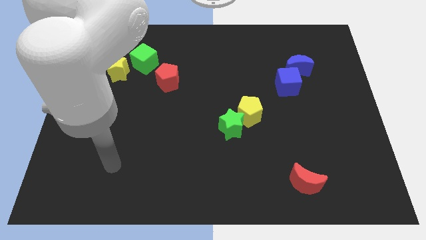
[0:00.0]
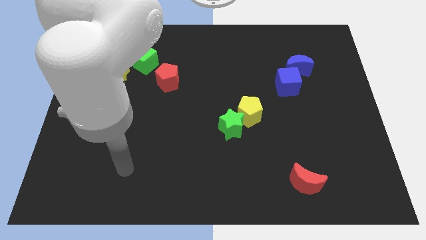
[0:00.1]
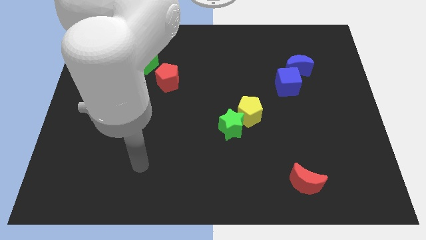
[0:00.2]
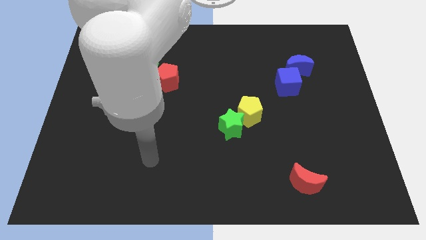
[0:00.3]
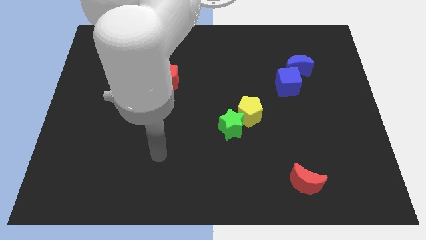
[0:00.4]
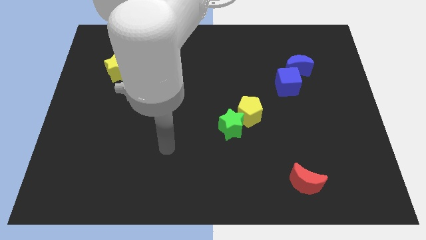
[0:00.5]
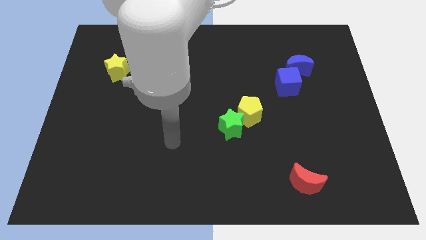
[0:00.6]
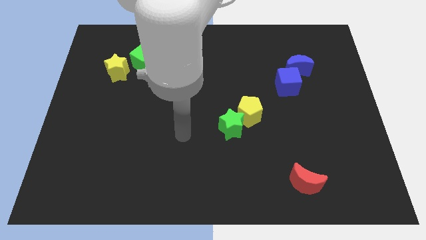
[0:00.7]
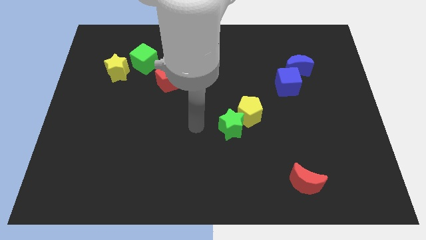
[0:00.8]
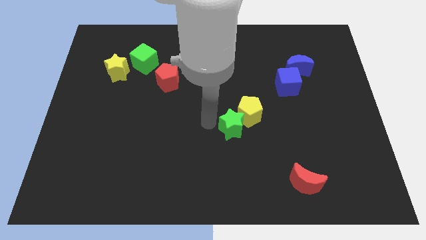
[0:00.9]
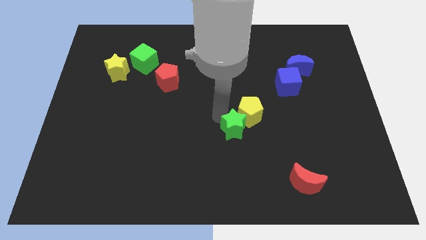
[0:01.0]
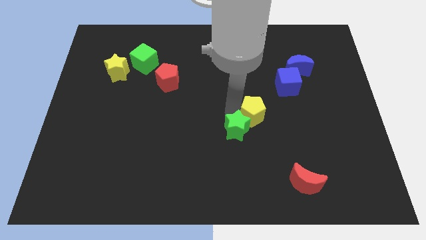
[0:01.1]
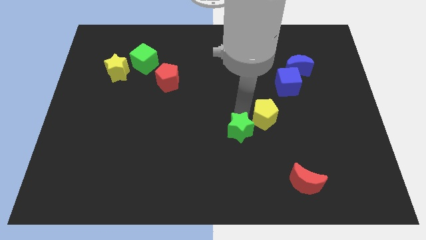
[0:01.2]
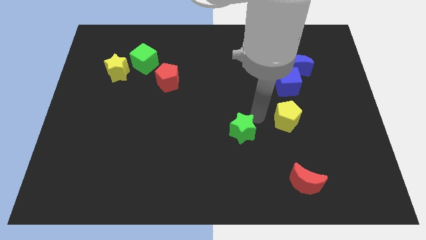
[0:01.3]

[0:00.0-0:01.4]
separate the green star from the yellow pentagon

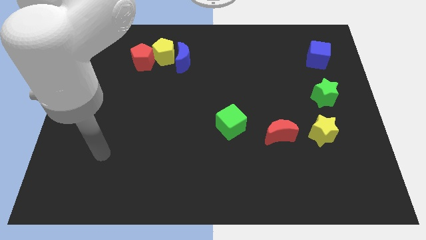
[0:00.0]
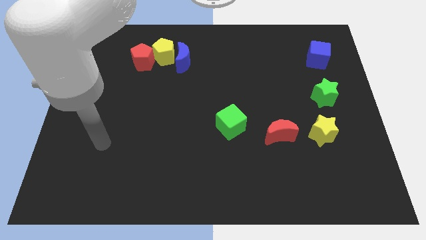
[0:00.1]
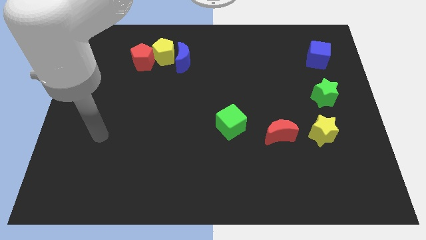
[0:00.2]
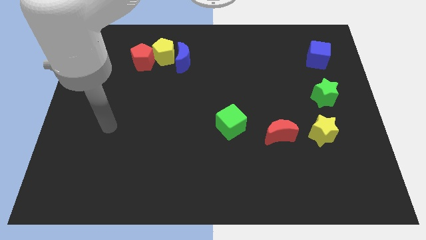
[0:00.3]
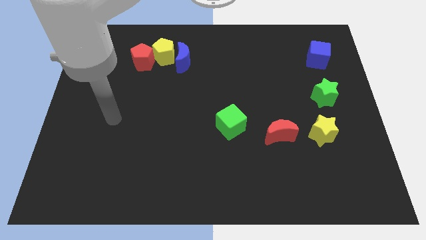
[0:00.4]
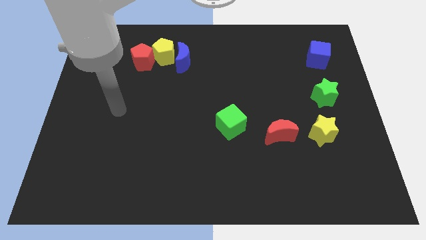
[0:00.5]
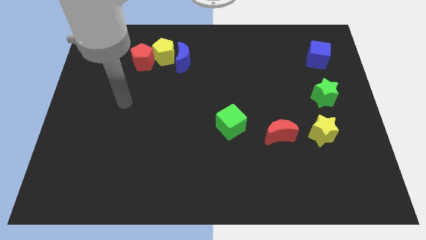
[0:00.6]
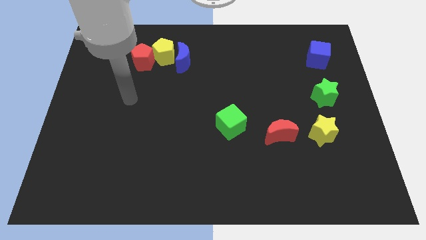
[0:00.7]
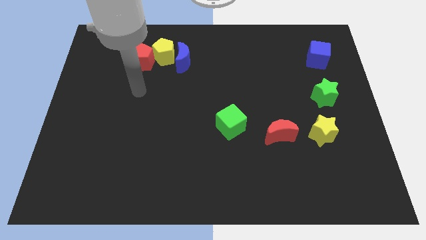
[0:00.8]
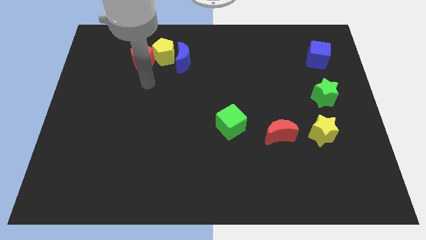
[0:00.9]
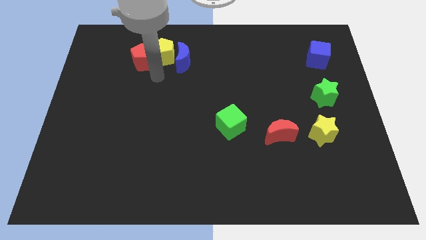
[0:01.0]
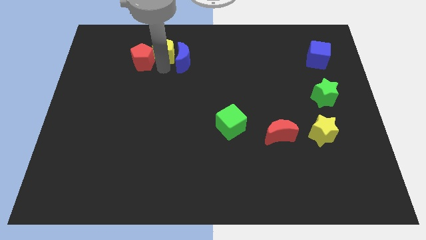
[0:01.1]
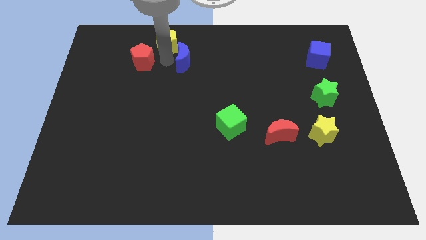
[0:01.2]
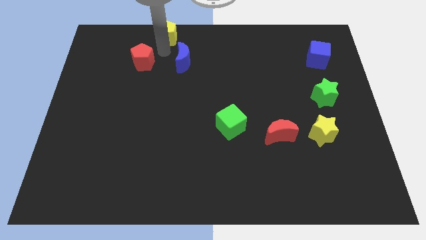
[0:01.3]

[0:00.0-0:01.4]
move the red pentagon away from the yellow pentagon

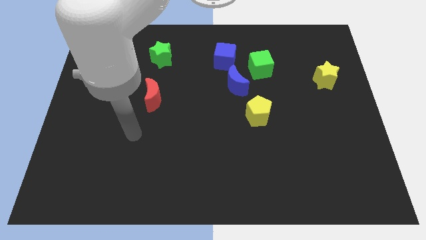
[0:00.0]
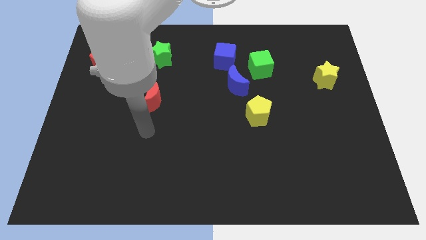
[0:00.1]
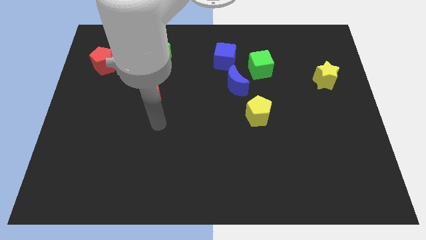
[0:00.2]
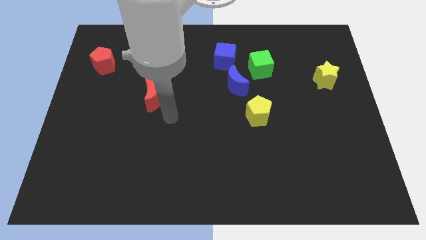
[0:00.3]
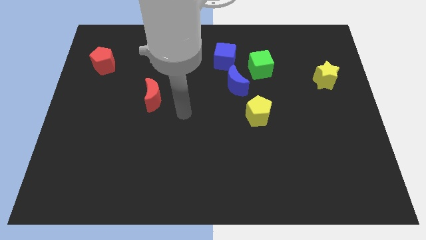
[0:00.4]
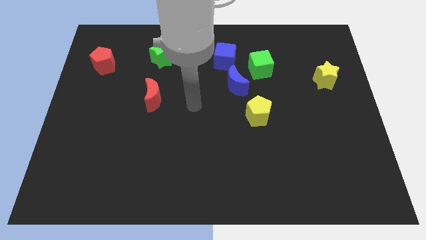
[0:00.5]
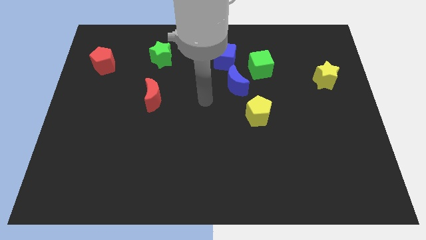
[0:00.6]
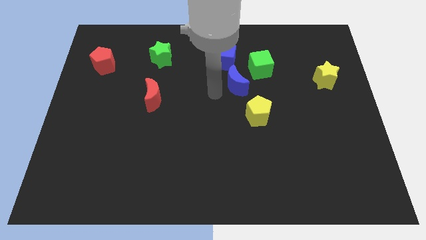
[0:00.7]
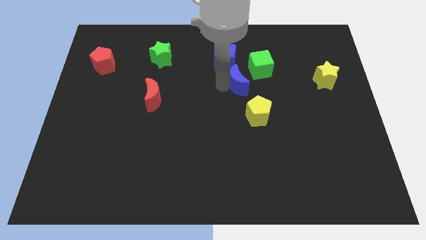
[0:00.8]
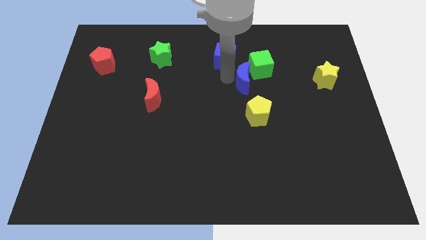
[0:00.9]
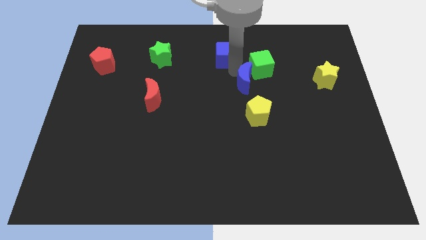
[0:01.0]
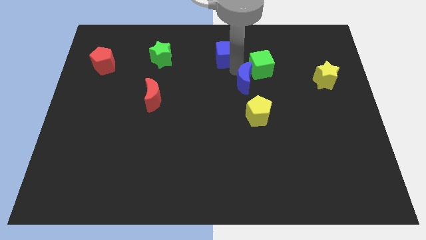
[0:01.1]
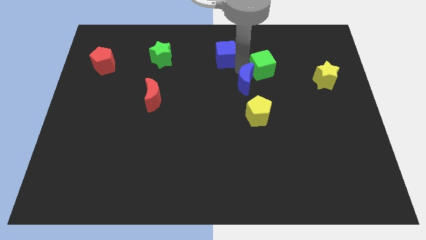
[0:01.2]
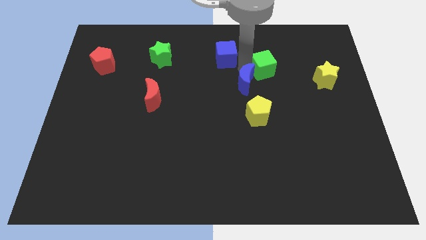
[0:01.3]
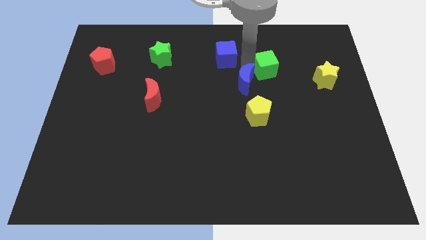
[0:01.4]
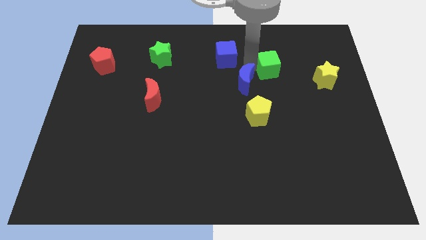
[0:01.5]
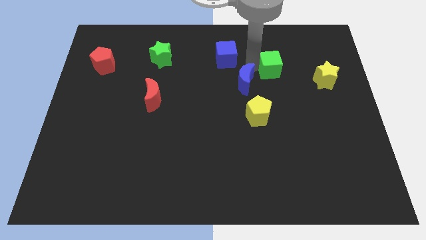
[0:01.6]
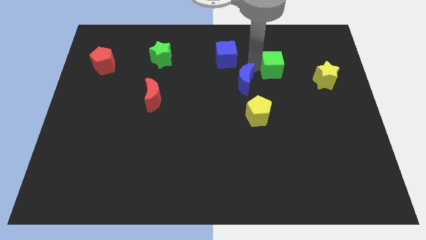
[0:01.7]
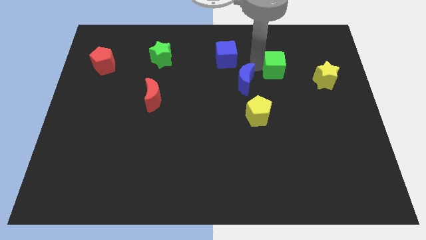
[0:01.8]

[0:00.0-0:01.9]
separate the green cube from the blue moon and blue cube

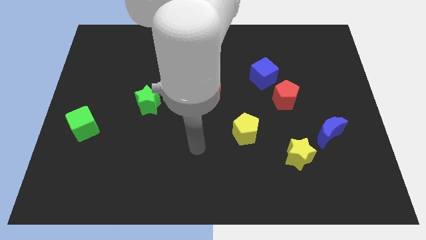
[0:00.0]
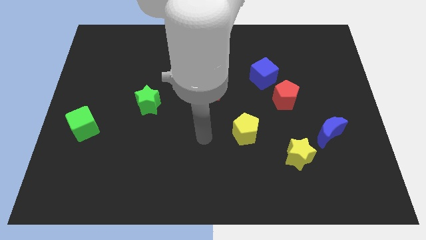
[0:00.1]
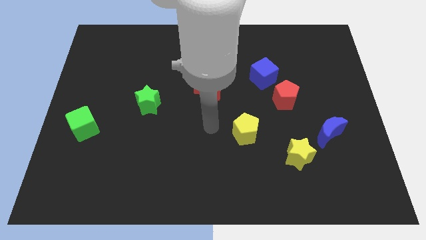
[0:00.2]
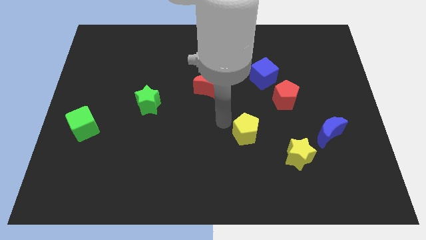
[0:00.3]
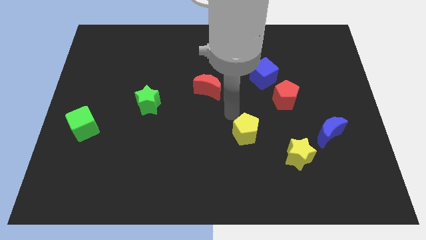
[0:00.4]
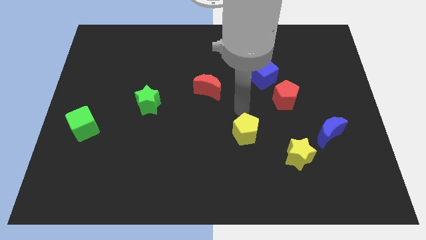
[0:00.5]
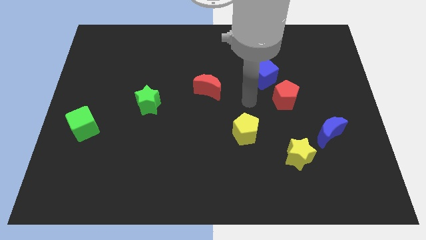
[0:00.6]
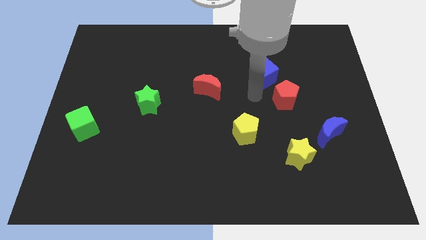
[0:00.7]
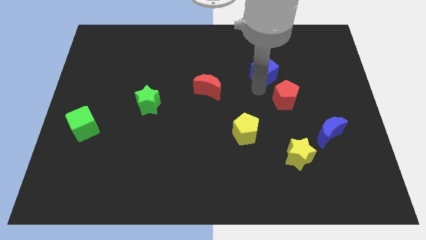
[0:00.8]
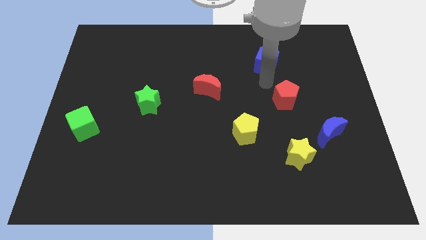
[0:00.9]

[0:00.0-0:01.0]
move the red pentagon away from the blue cube

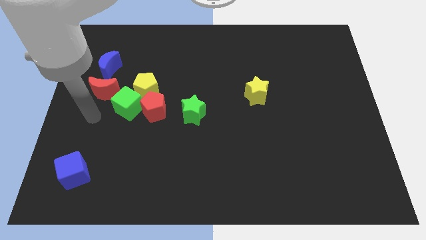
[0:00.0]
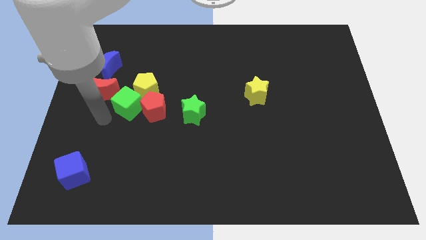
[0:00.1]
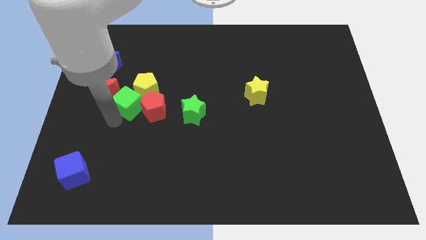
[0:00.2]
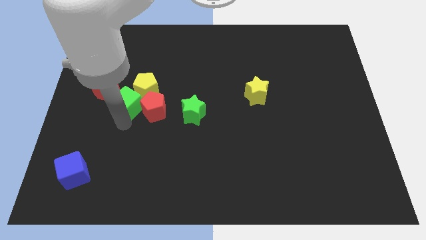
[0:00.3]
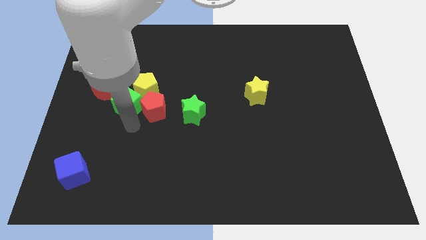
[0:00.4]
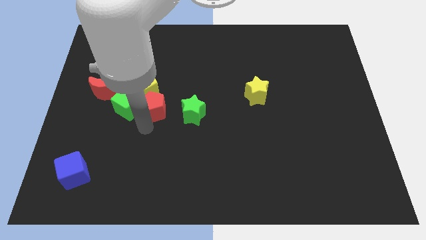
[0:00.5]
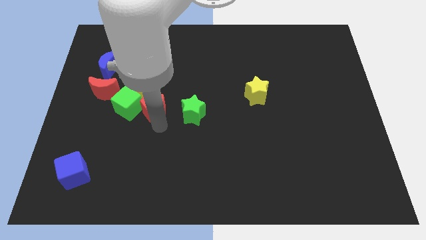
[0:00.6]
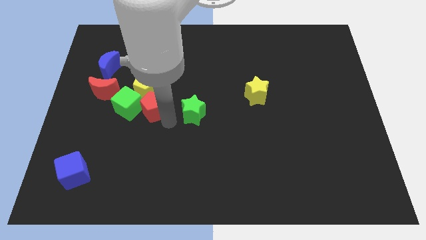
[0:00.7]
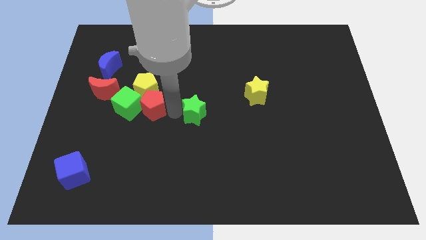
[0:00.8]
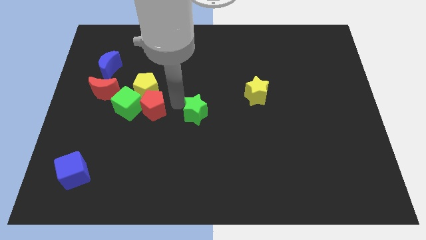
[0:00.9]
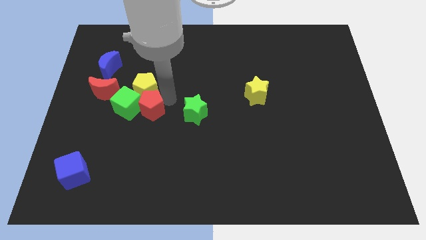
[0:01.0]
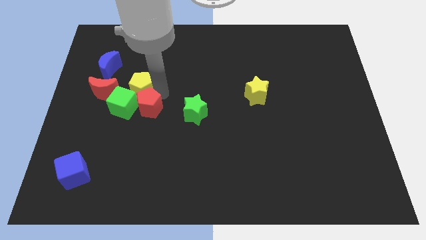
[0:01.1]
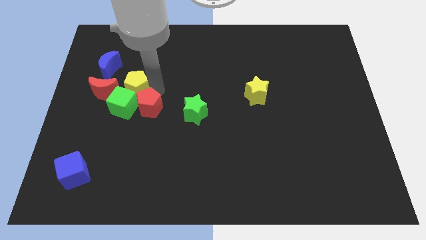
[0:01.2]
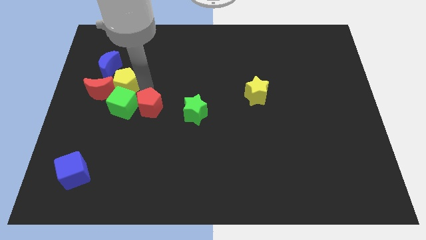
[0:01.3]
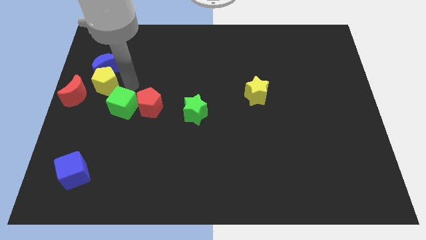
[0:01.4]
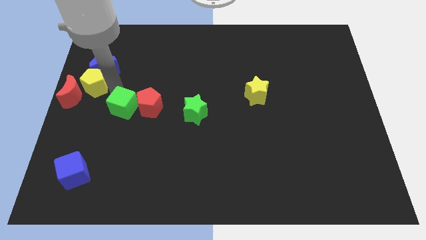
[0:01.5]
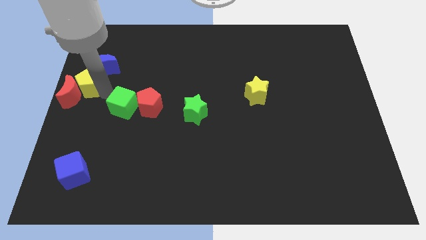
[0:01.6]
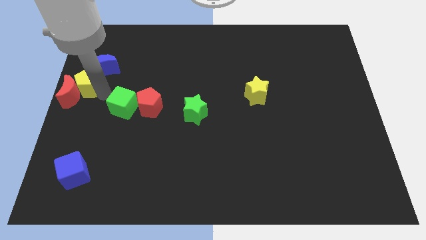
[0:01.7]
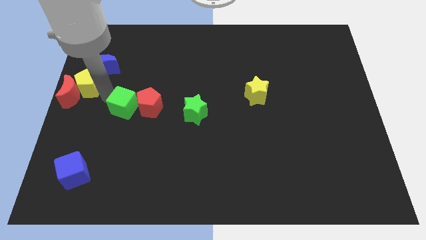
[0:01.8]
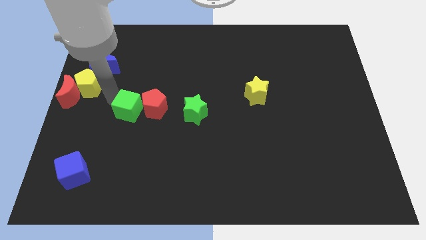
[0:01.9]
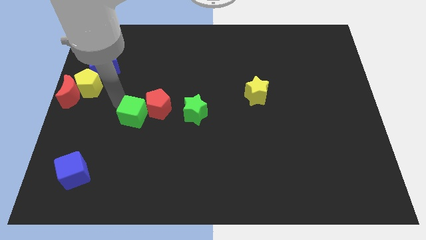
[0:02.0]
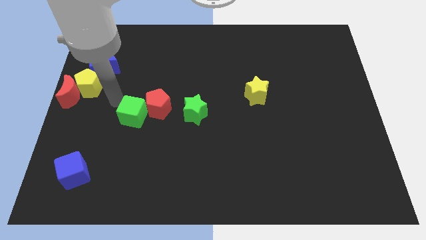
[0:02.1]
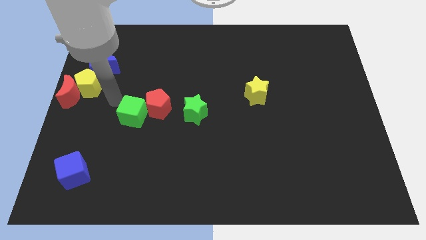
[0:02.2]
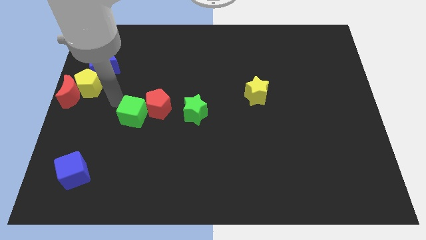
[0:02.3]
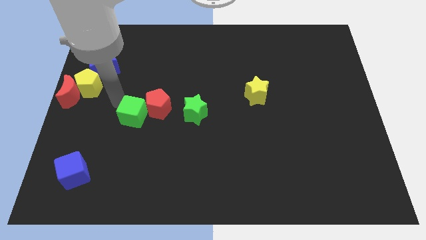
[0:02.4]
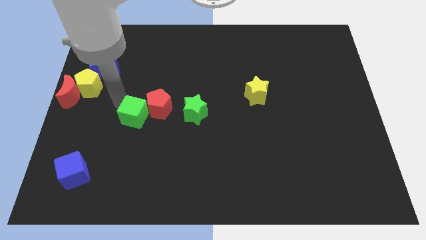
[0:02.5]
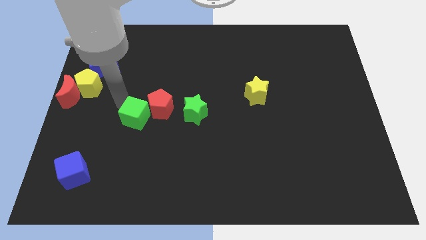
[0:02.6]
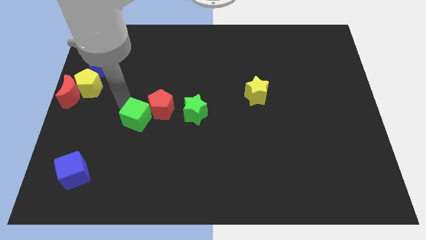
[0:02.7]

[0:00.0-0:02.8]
separate the green cube from the yellow pentagon, red pentagon, and red moon

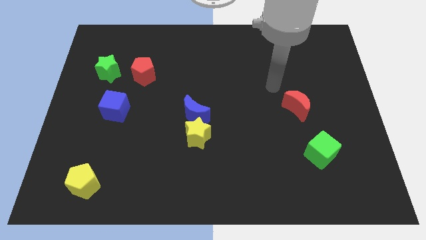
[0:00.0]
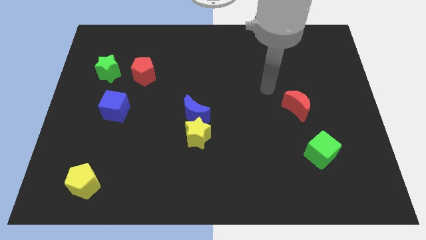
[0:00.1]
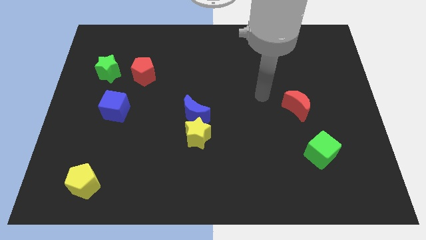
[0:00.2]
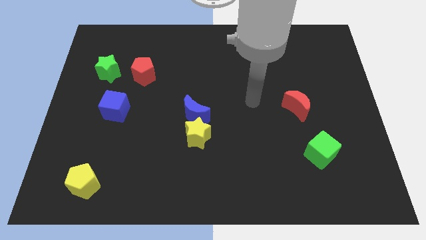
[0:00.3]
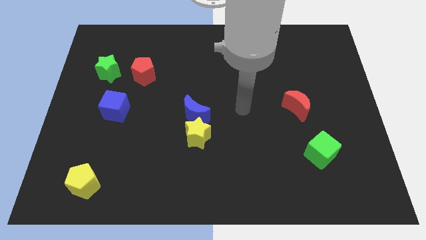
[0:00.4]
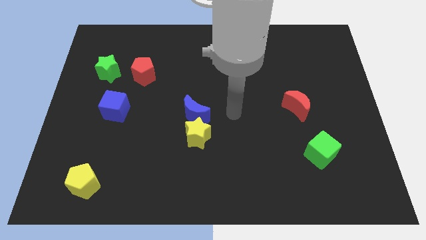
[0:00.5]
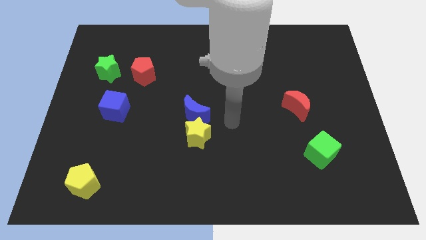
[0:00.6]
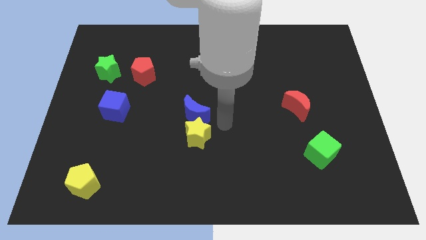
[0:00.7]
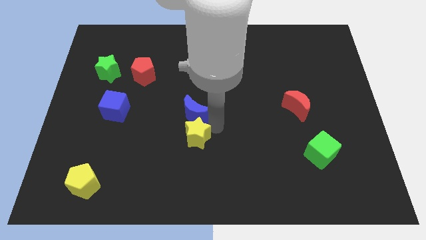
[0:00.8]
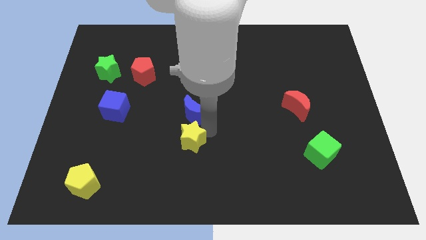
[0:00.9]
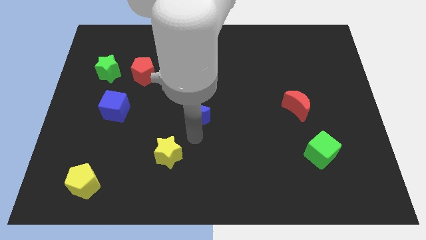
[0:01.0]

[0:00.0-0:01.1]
move the blue moon away from the yellow star
